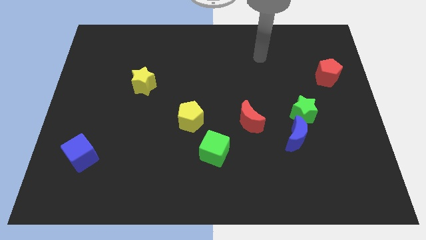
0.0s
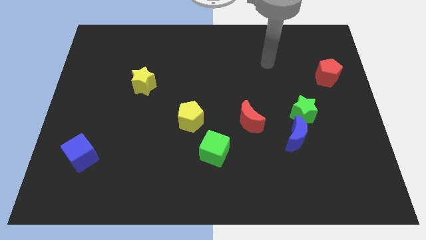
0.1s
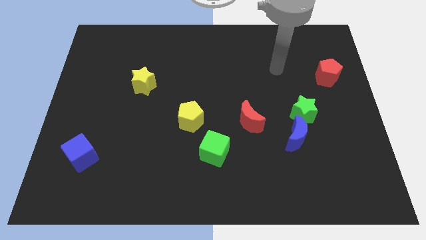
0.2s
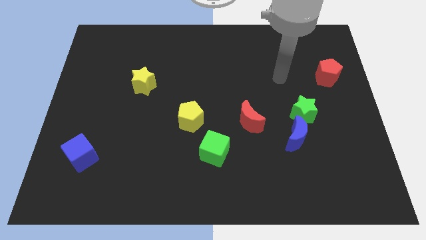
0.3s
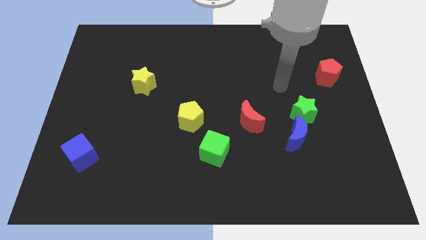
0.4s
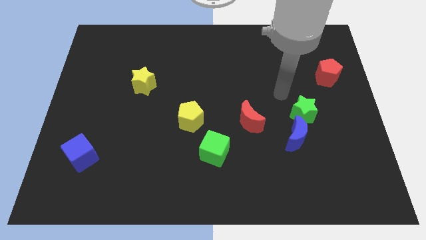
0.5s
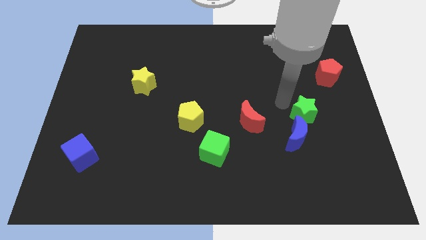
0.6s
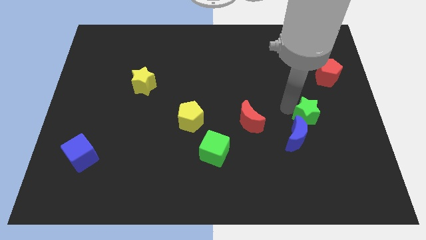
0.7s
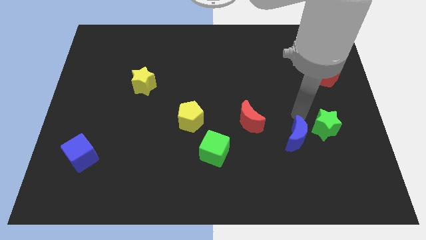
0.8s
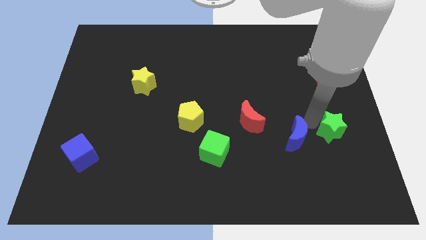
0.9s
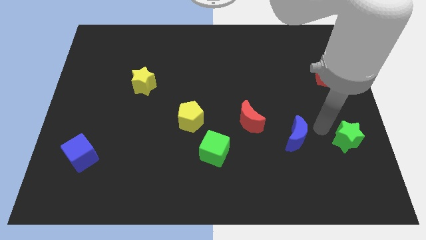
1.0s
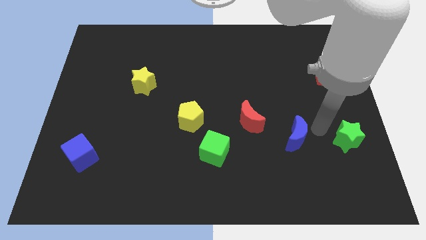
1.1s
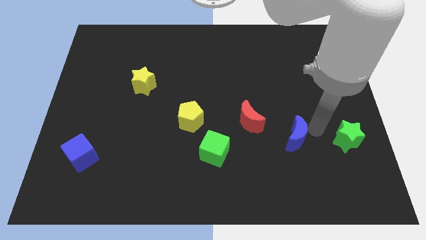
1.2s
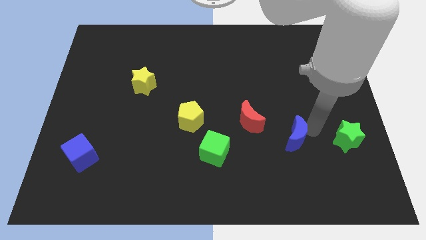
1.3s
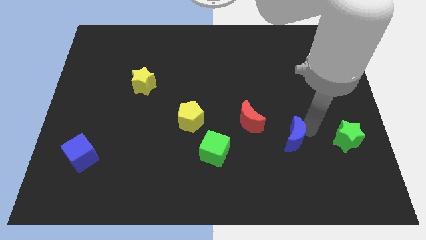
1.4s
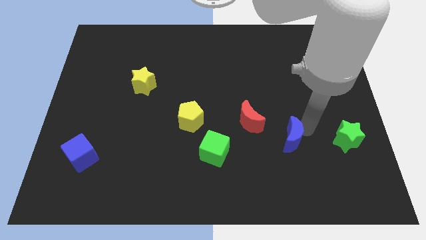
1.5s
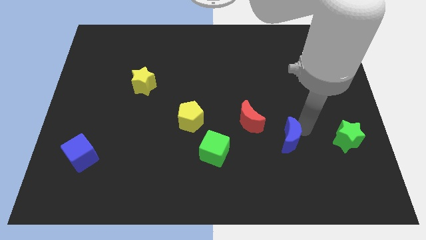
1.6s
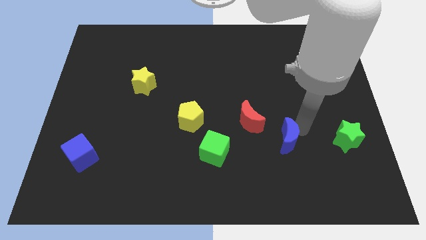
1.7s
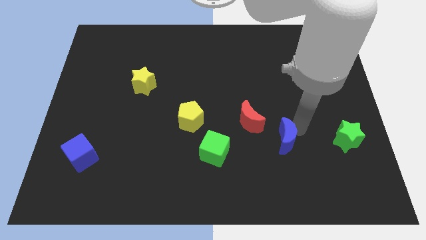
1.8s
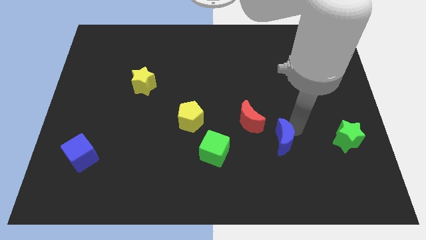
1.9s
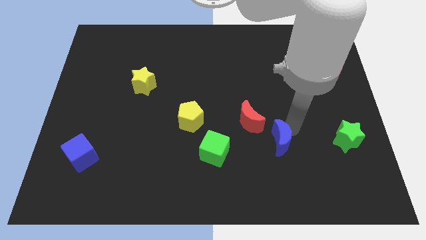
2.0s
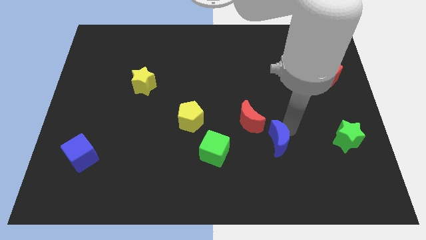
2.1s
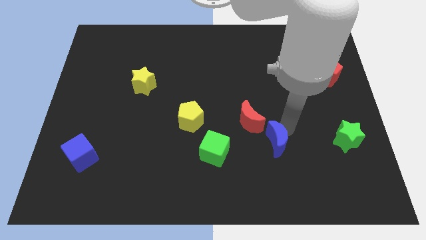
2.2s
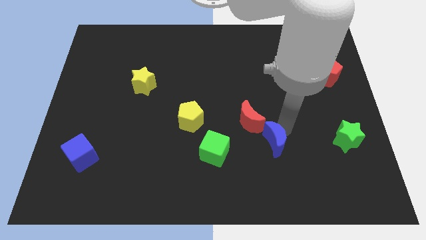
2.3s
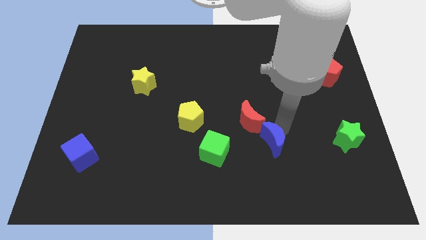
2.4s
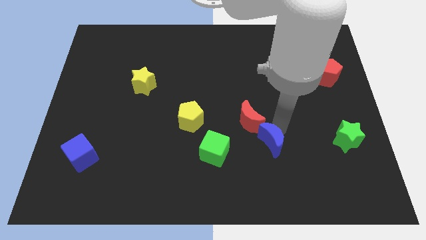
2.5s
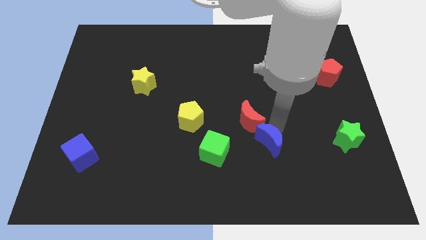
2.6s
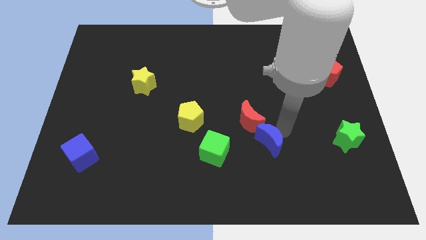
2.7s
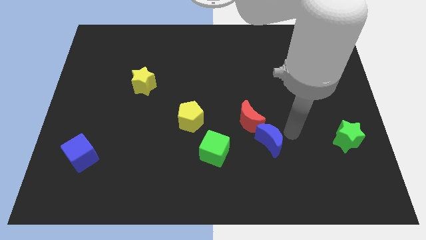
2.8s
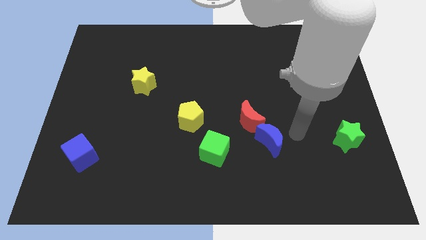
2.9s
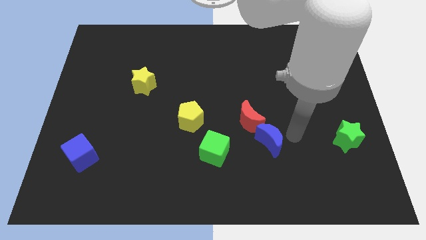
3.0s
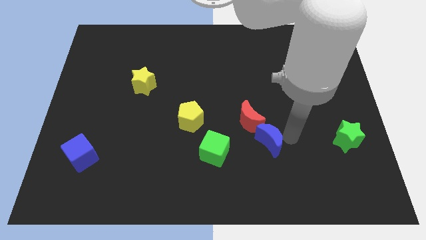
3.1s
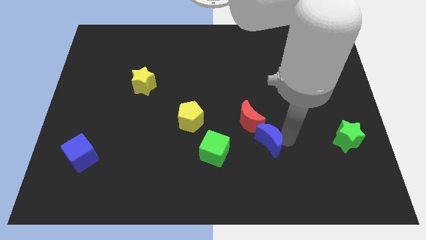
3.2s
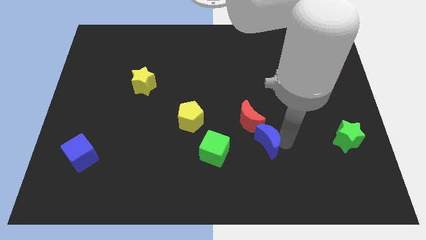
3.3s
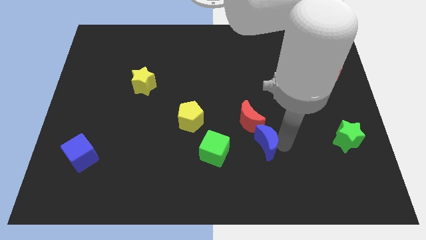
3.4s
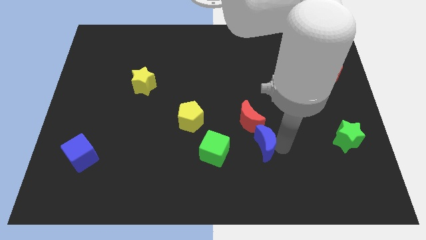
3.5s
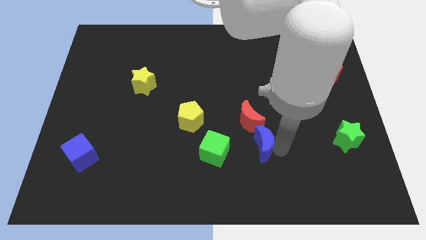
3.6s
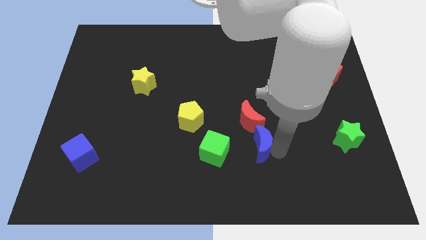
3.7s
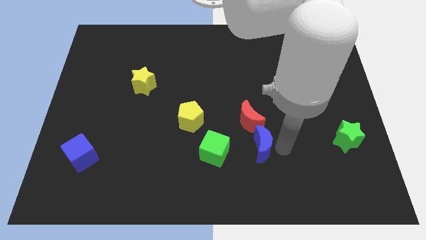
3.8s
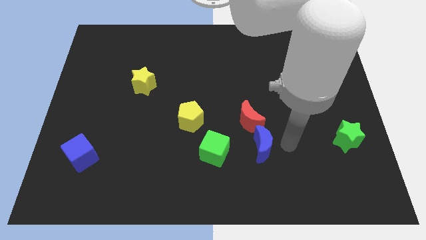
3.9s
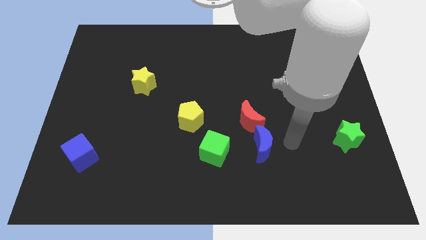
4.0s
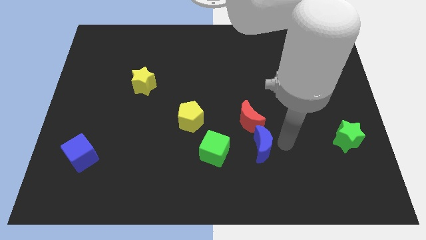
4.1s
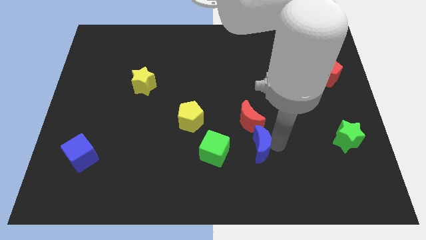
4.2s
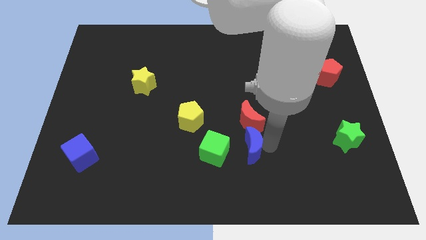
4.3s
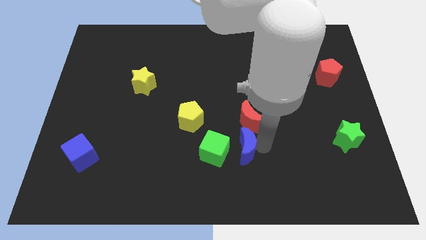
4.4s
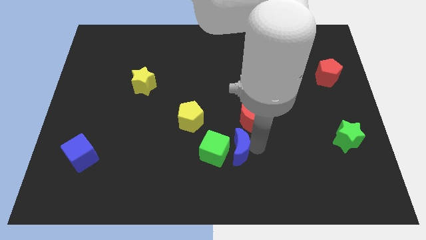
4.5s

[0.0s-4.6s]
put the blue moon next to the green cube

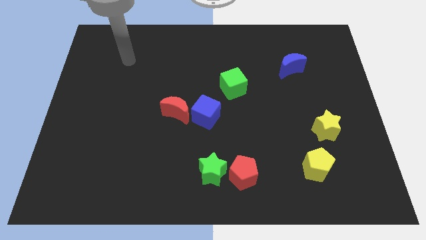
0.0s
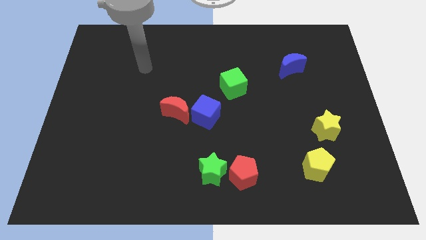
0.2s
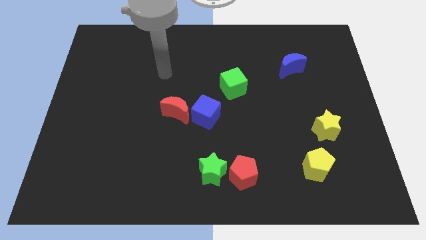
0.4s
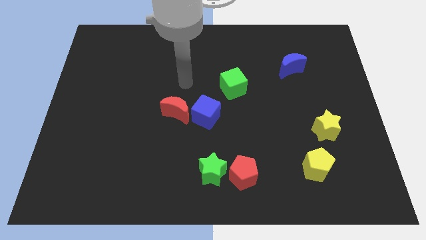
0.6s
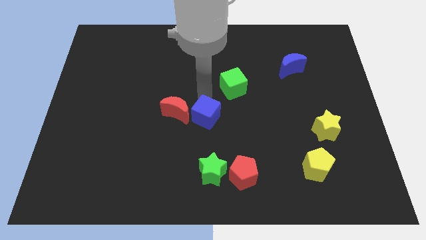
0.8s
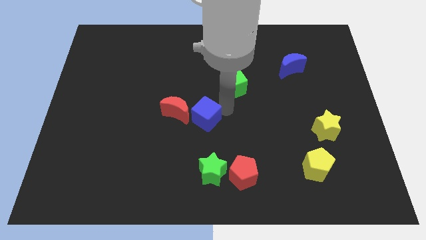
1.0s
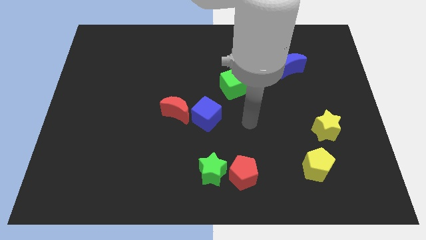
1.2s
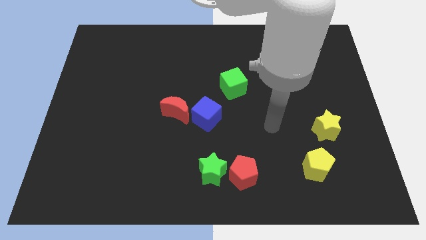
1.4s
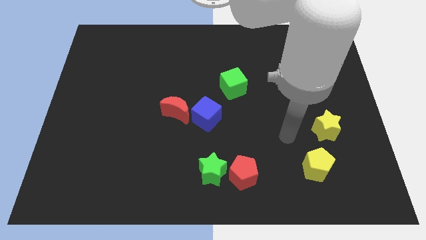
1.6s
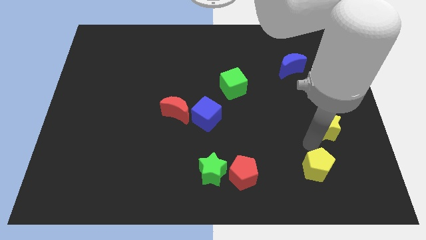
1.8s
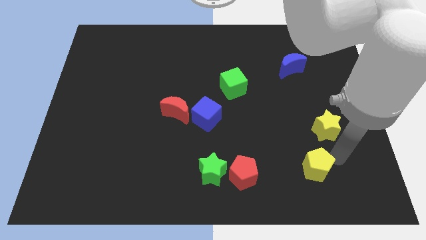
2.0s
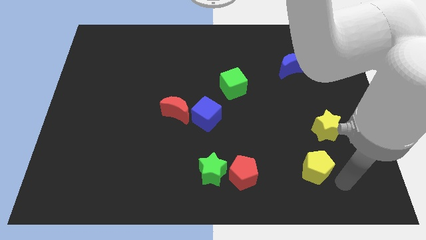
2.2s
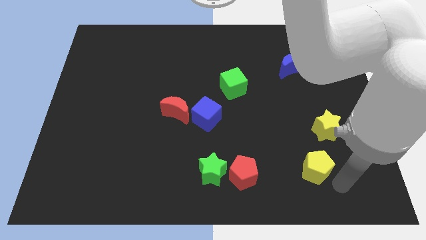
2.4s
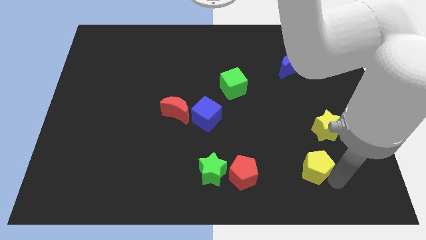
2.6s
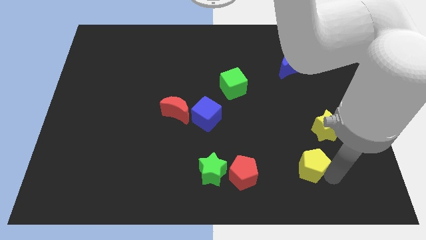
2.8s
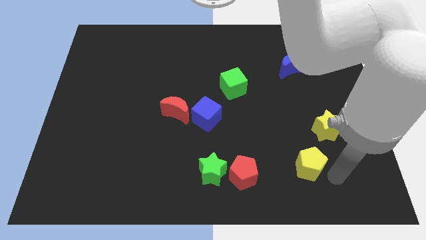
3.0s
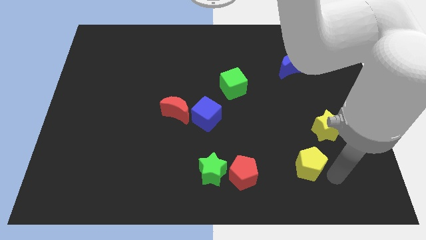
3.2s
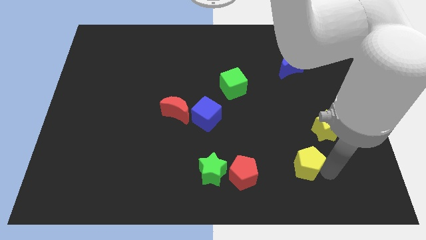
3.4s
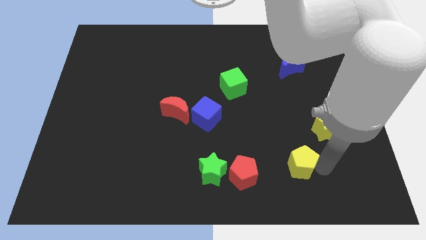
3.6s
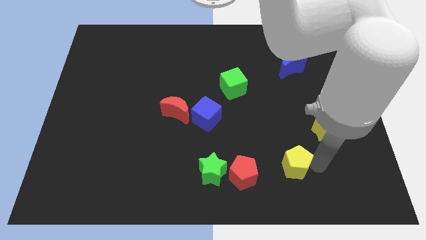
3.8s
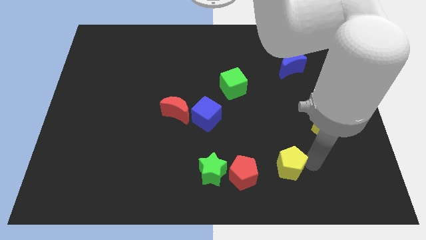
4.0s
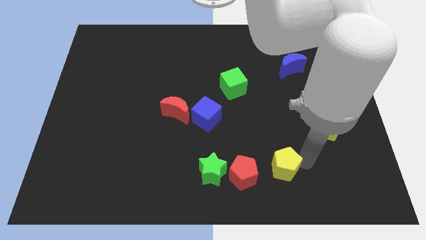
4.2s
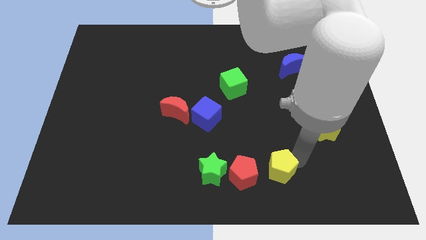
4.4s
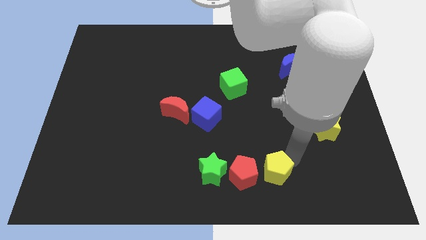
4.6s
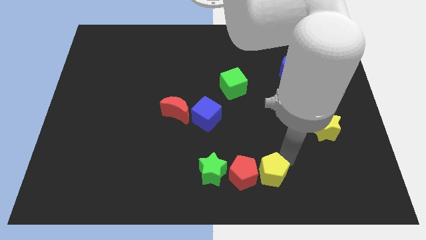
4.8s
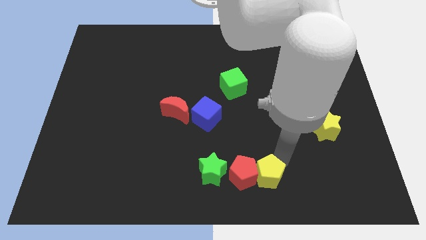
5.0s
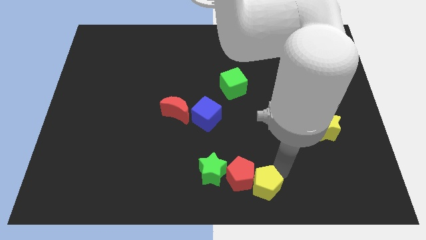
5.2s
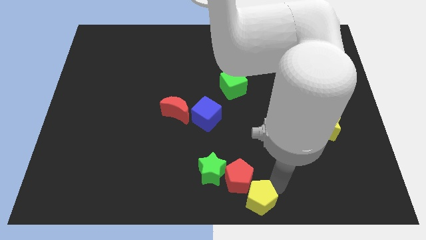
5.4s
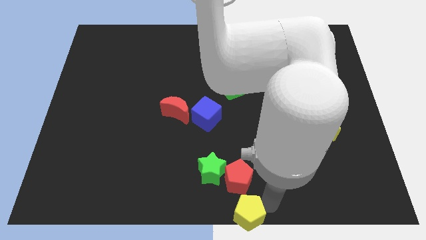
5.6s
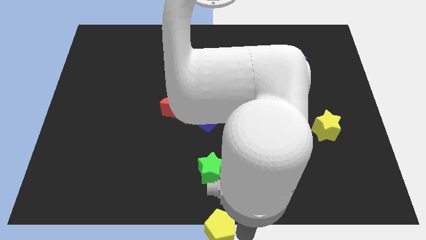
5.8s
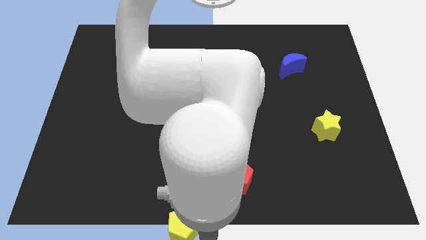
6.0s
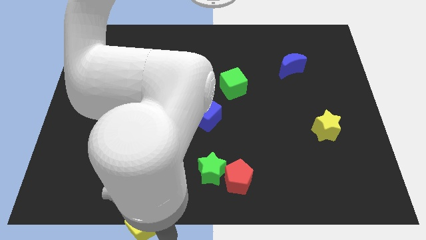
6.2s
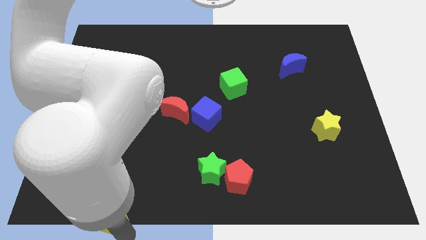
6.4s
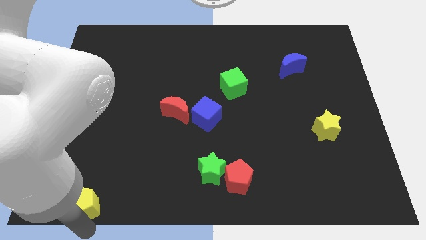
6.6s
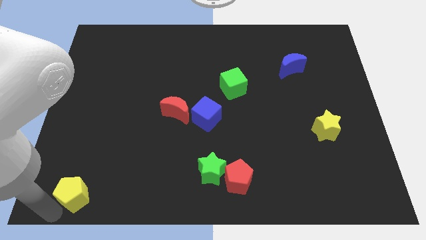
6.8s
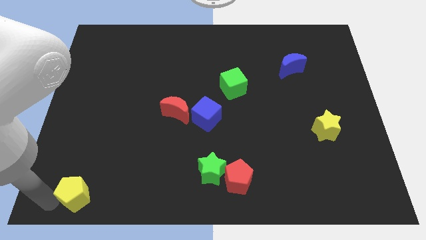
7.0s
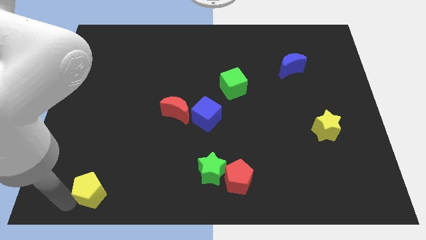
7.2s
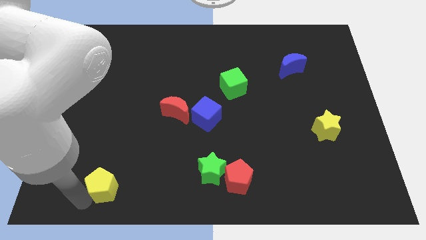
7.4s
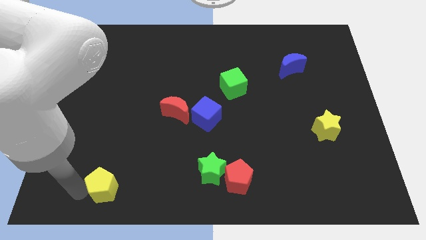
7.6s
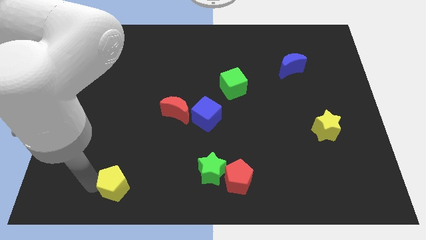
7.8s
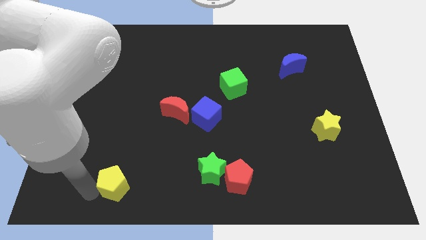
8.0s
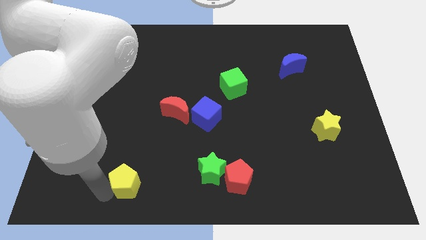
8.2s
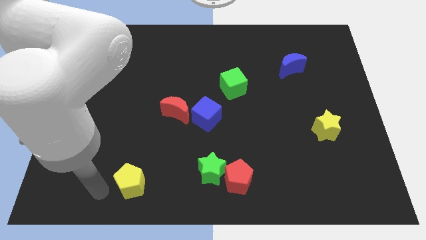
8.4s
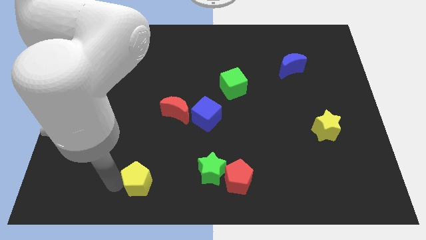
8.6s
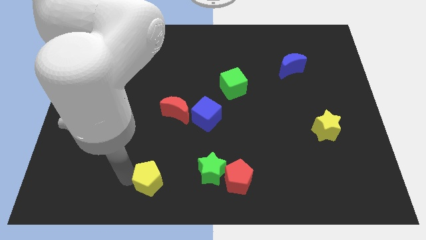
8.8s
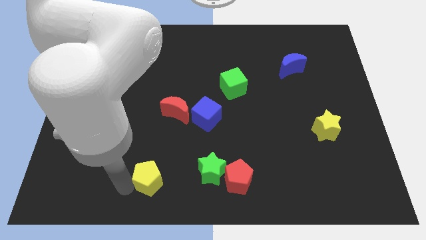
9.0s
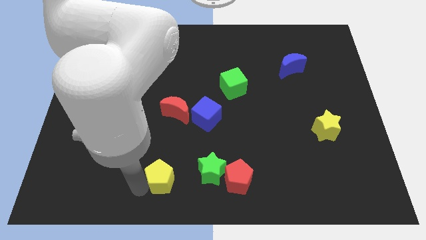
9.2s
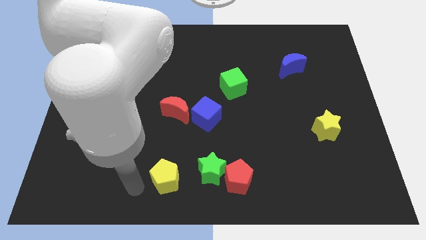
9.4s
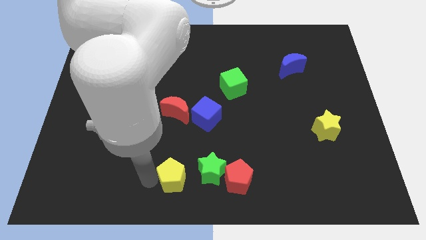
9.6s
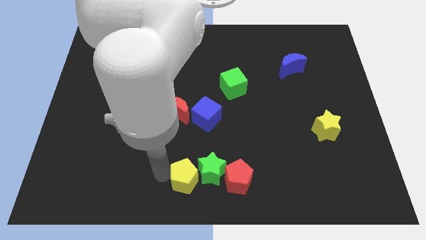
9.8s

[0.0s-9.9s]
put the yellow pentagon next to the green star
